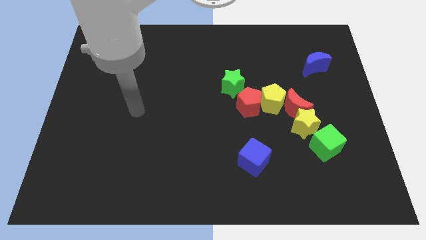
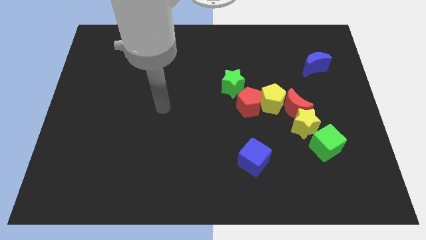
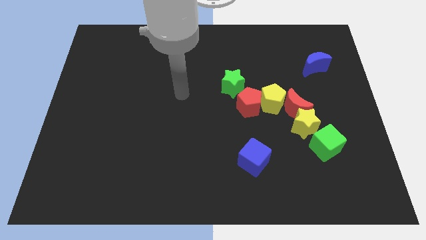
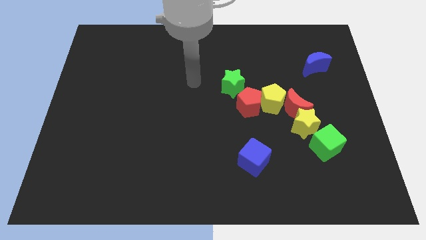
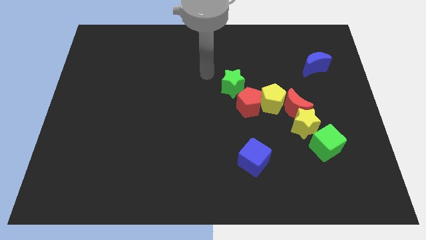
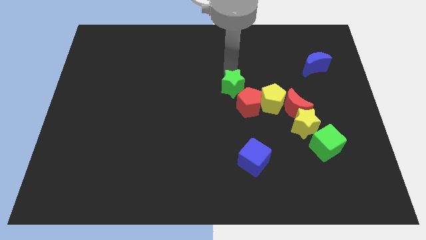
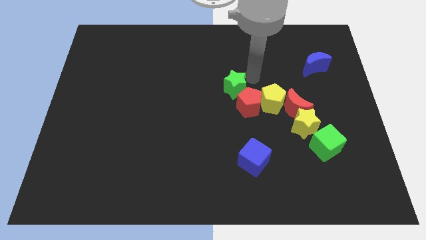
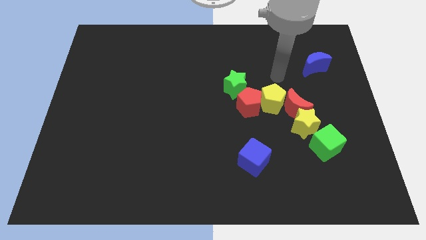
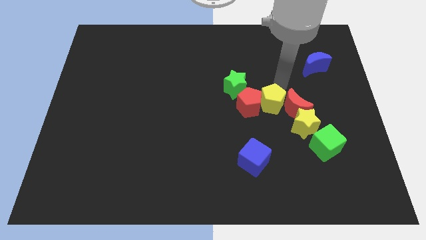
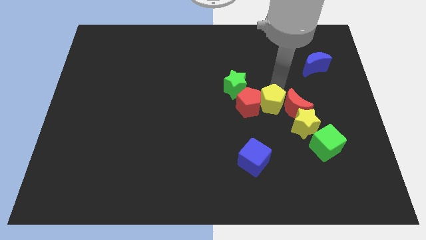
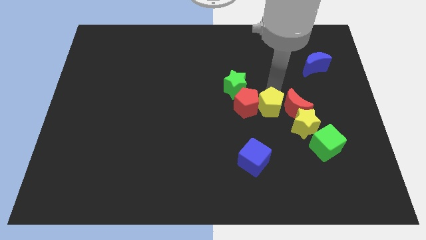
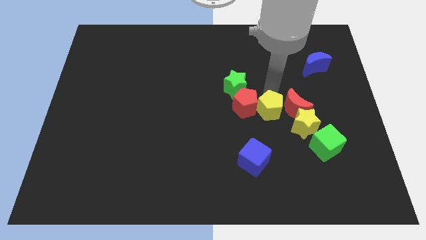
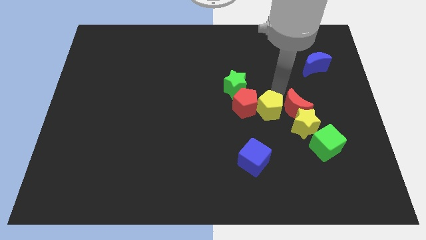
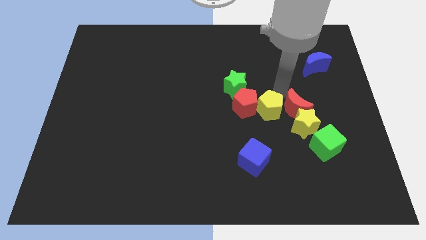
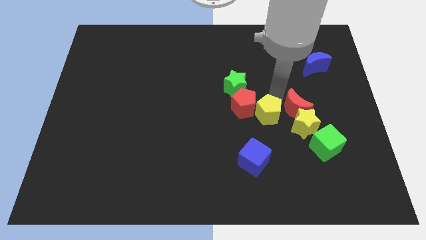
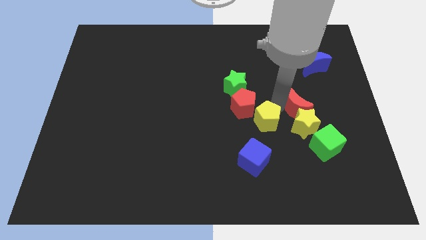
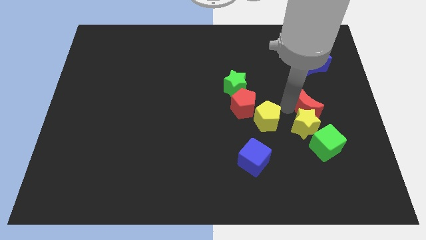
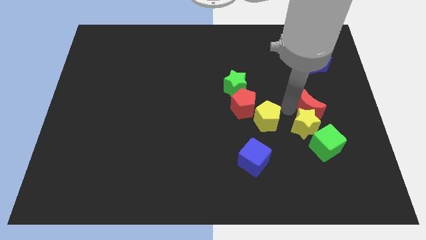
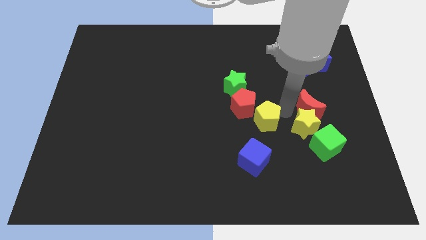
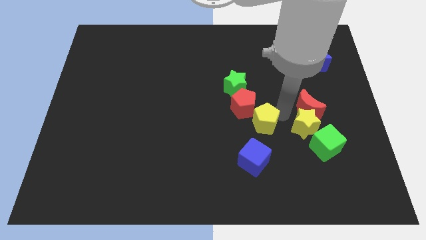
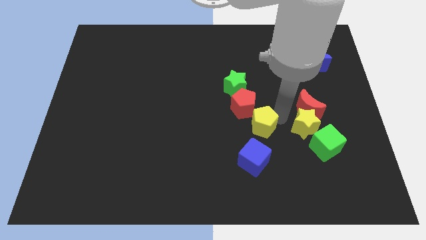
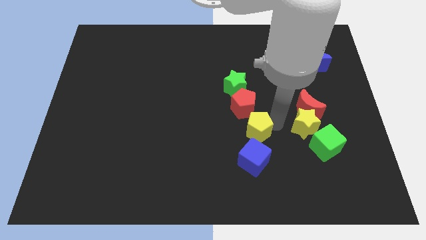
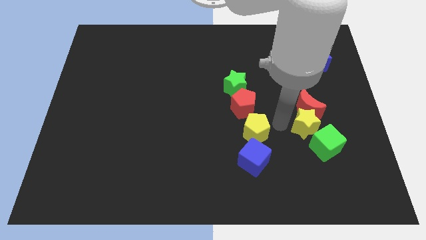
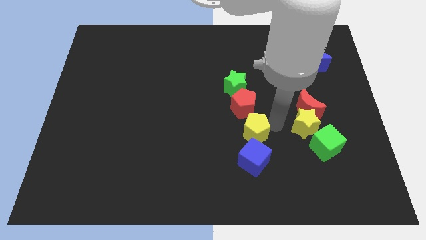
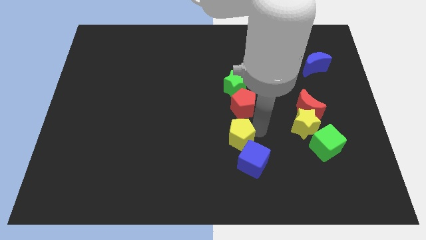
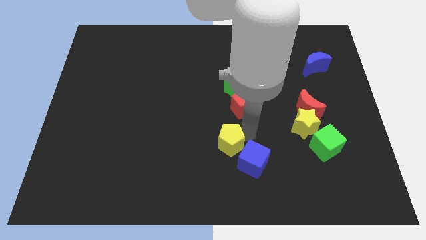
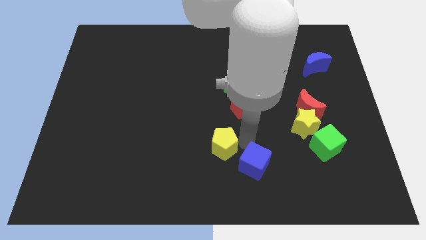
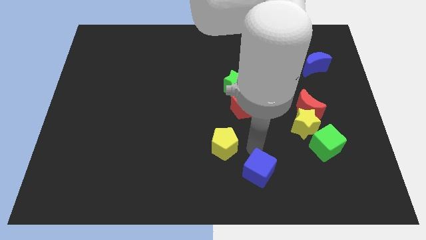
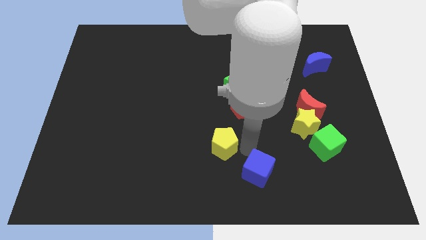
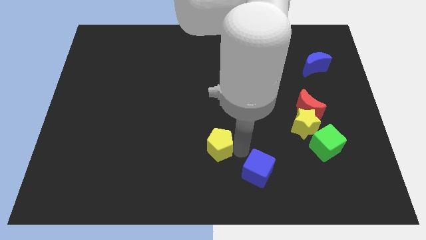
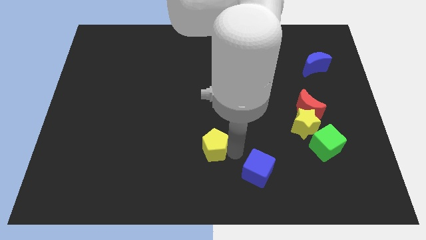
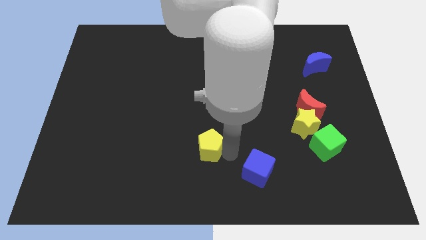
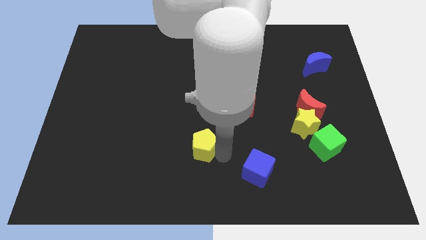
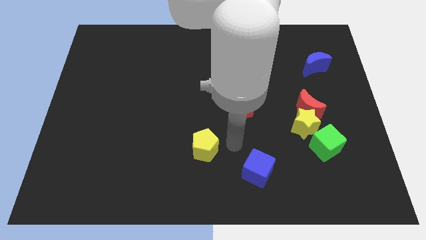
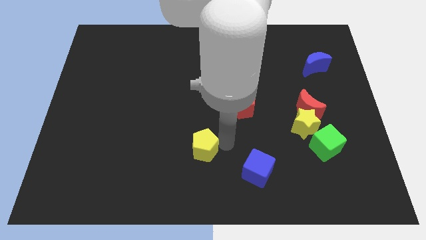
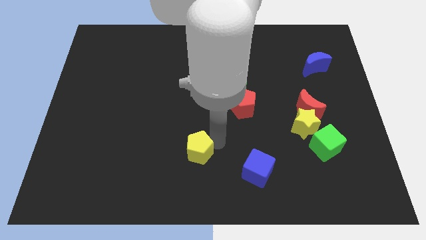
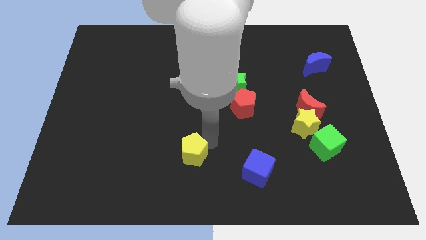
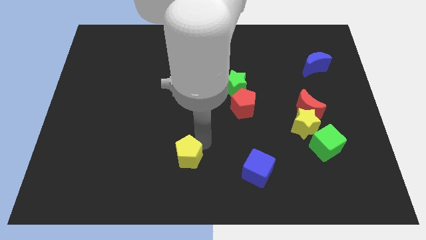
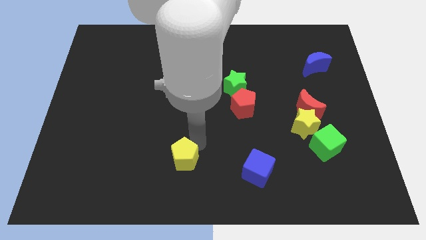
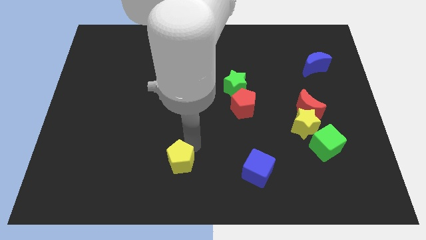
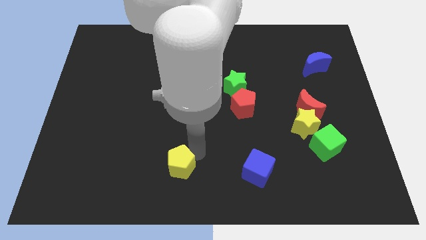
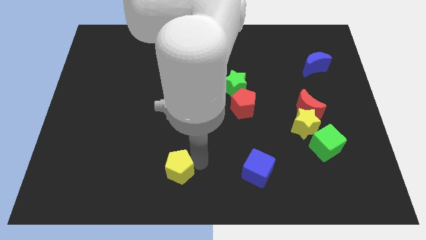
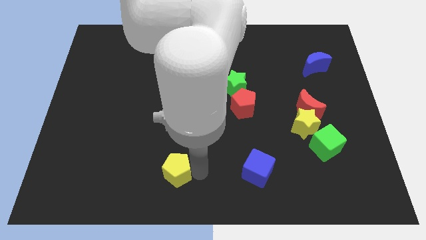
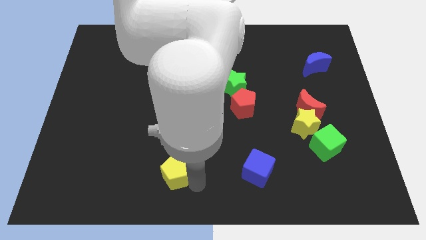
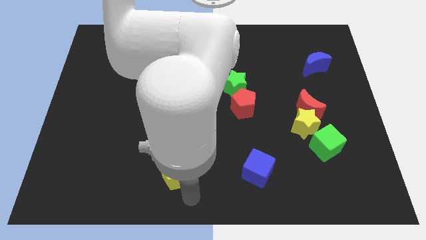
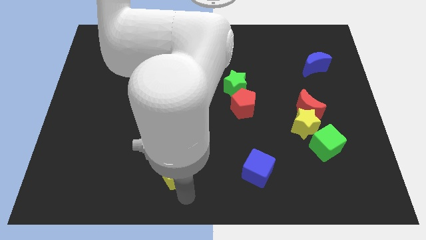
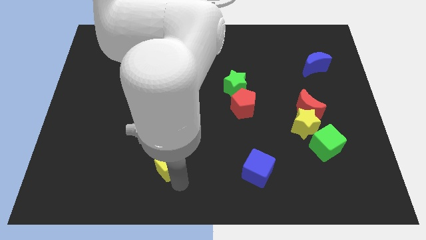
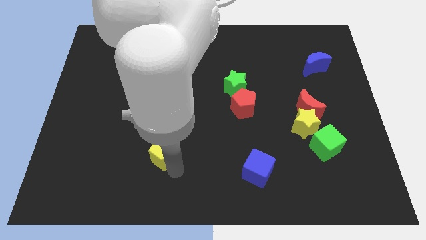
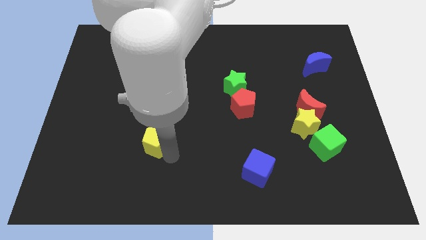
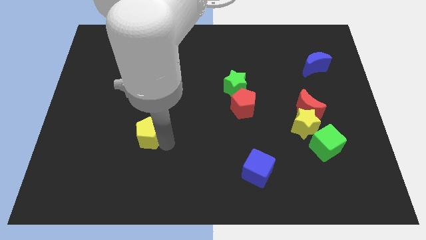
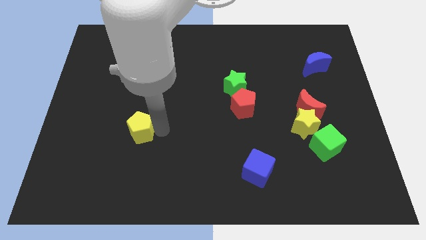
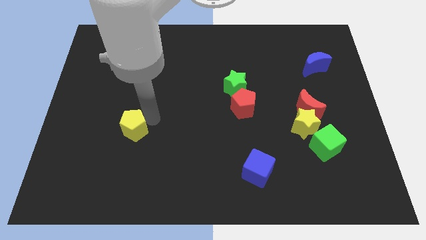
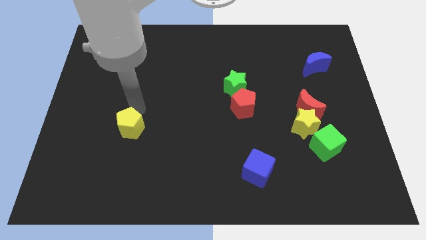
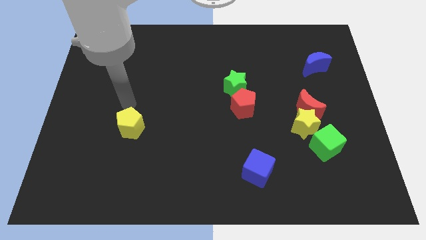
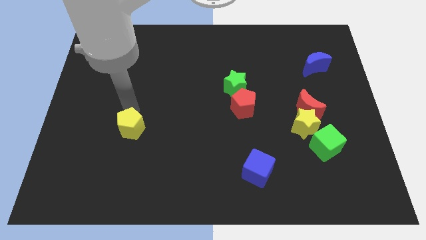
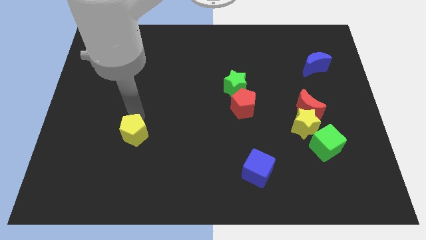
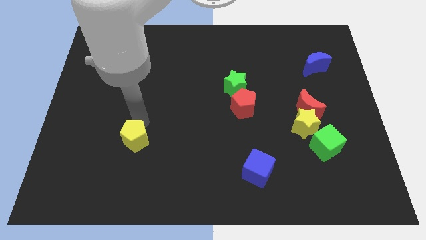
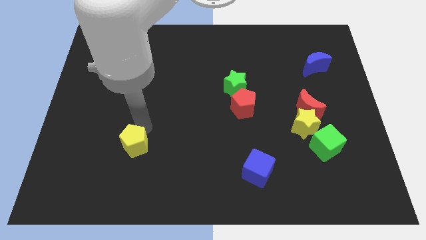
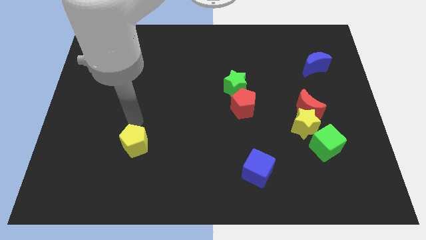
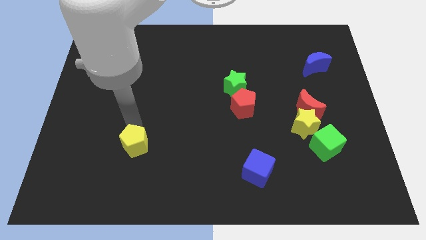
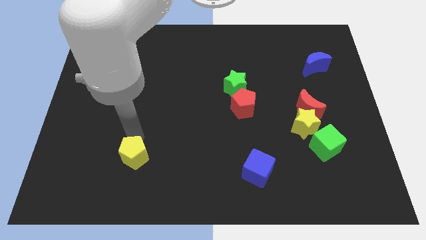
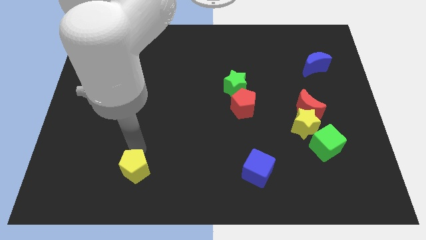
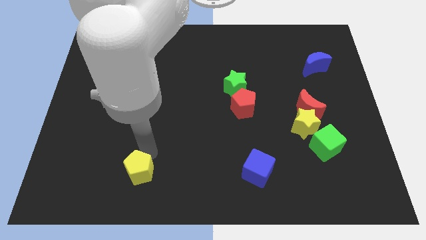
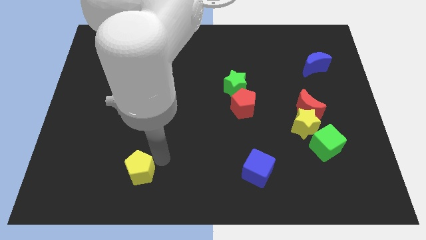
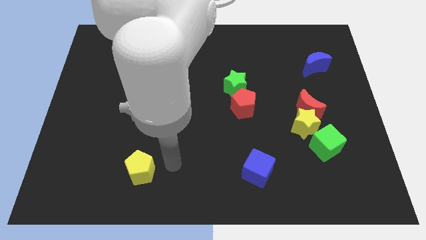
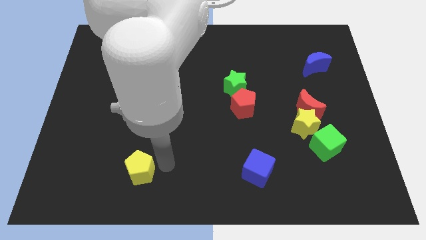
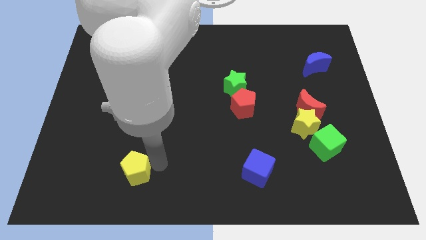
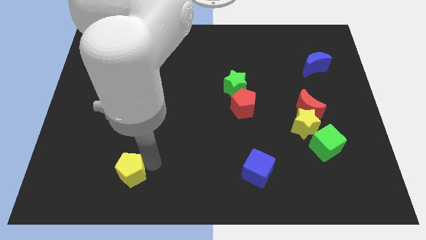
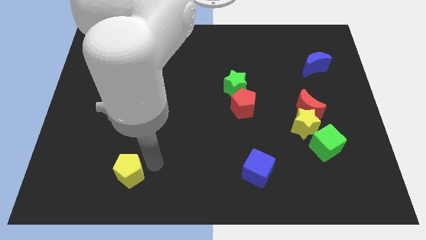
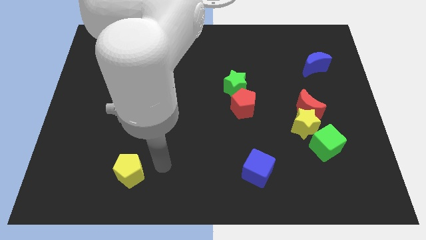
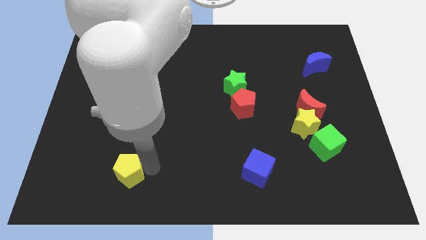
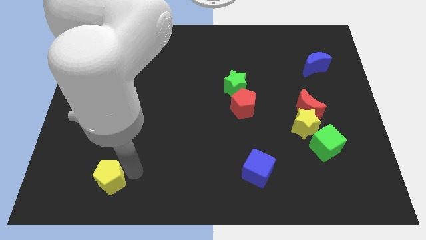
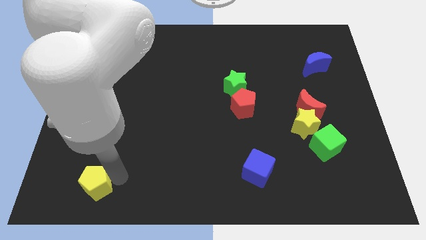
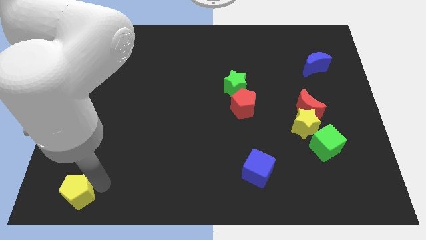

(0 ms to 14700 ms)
put the yellow pentagon to the lower left corner
